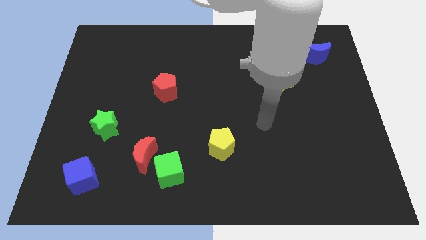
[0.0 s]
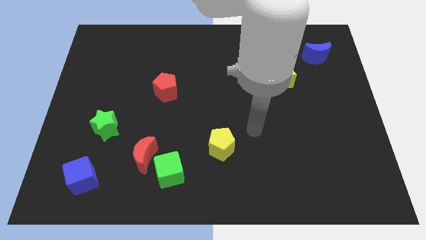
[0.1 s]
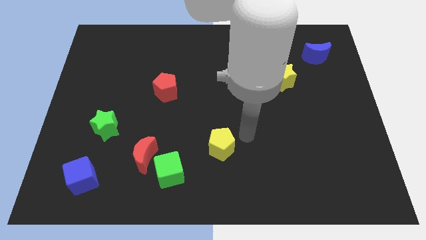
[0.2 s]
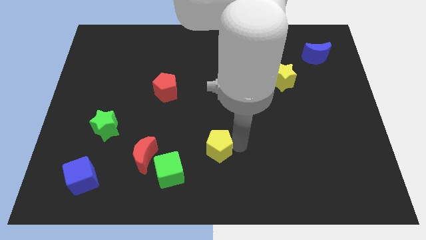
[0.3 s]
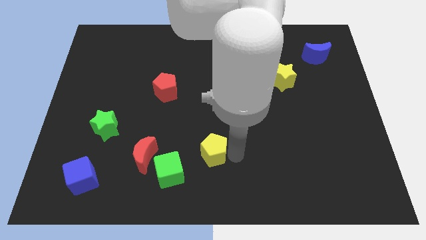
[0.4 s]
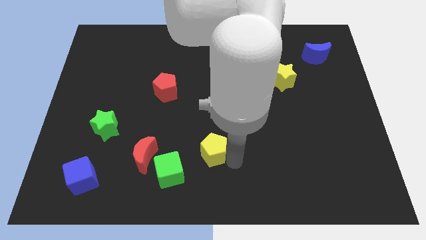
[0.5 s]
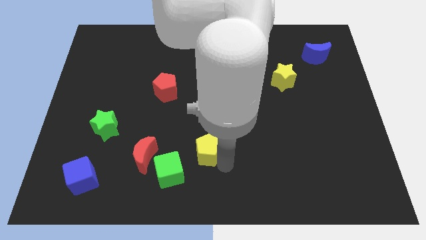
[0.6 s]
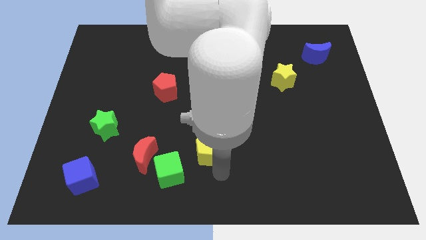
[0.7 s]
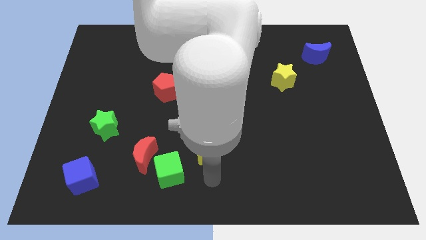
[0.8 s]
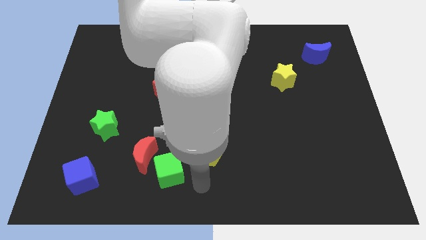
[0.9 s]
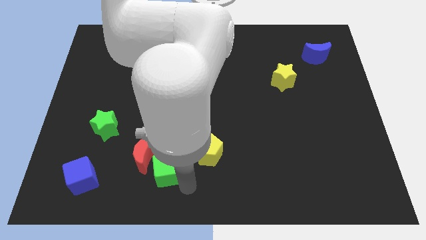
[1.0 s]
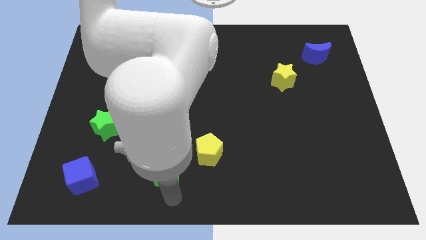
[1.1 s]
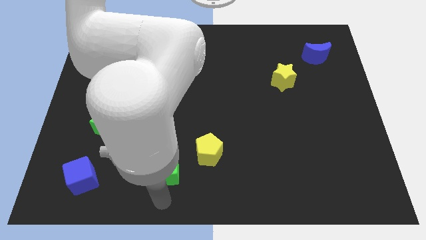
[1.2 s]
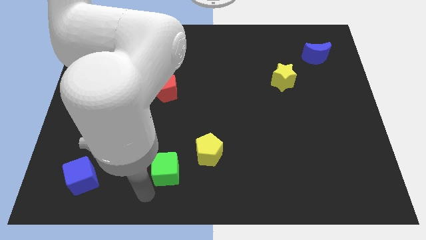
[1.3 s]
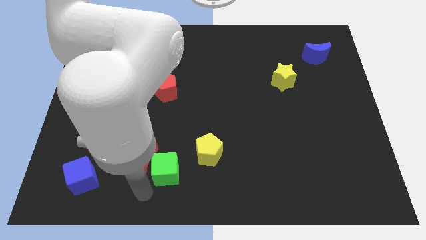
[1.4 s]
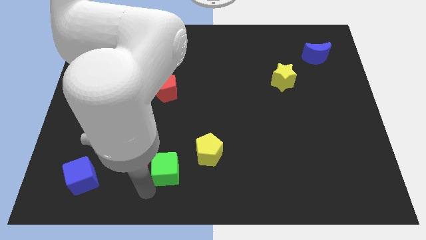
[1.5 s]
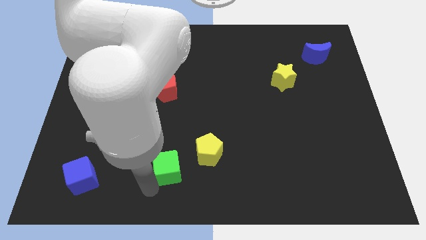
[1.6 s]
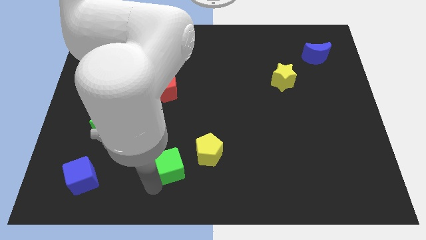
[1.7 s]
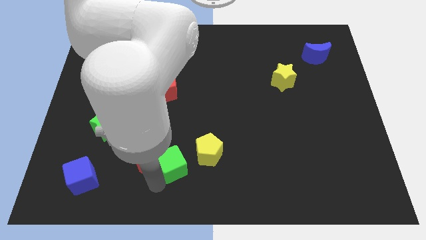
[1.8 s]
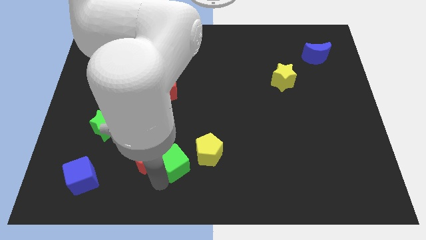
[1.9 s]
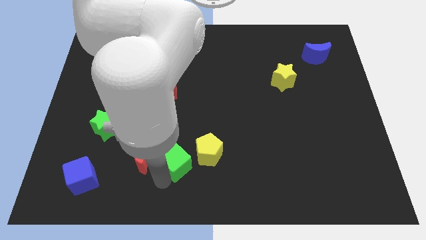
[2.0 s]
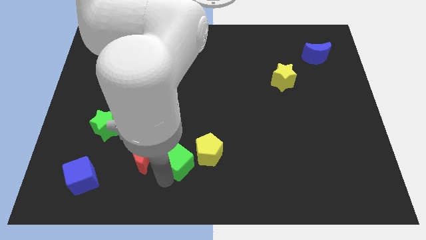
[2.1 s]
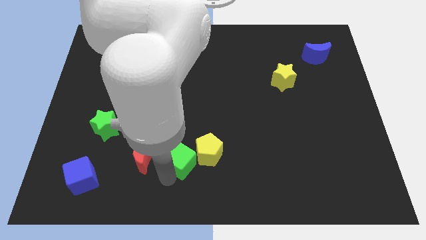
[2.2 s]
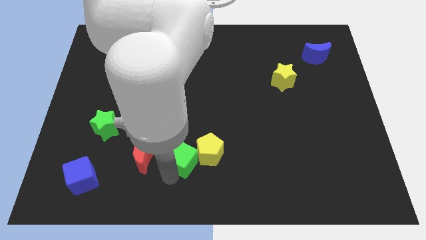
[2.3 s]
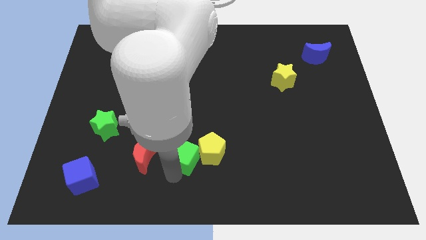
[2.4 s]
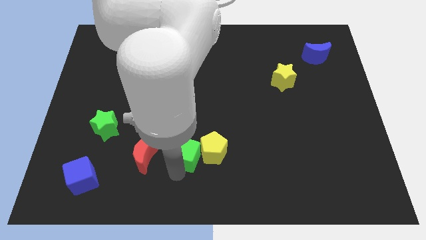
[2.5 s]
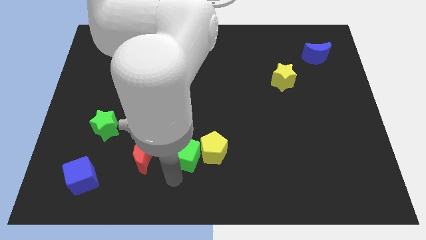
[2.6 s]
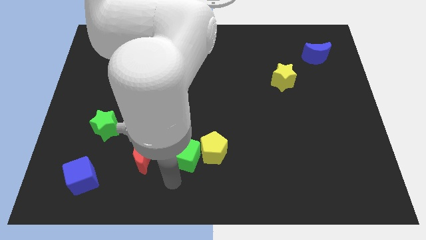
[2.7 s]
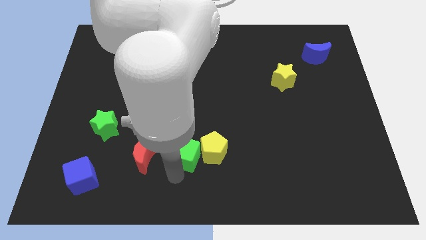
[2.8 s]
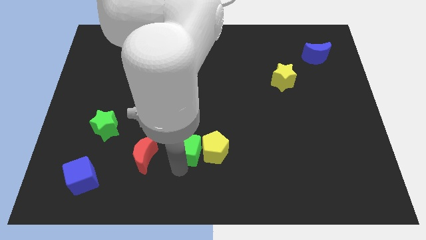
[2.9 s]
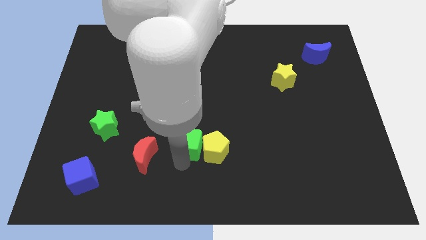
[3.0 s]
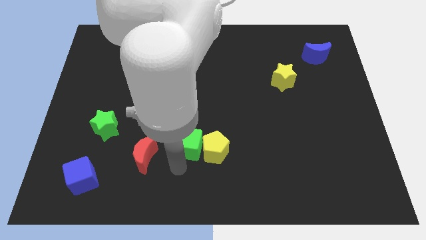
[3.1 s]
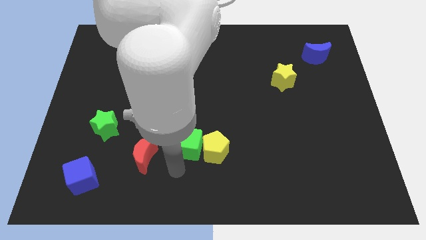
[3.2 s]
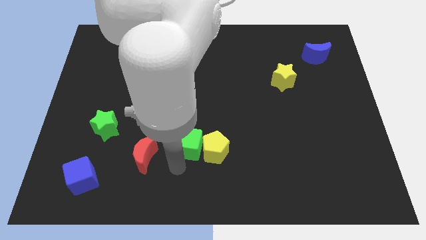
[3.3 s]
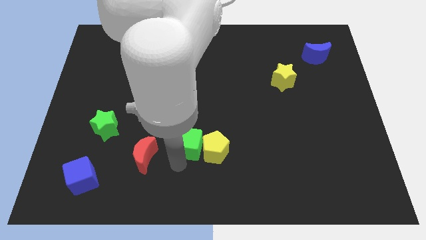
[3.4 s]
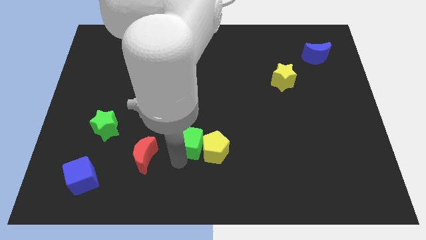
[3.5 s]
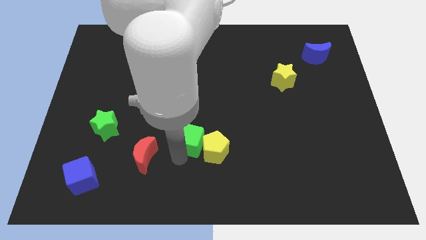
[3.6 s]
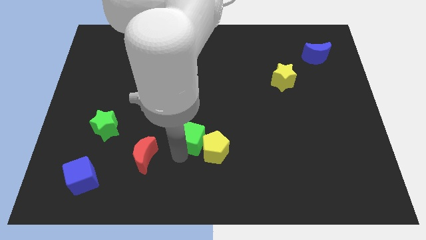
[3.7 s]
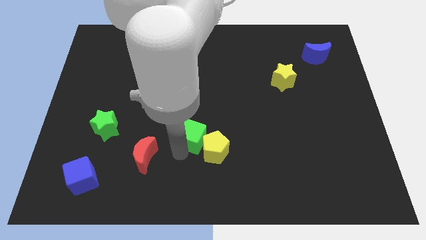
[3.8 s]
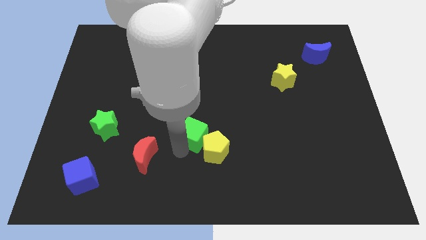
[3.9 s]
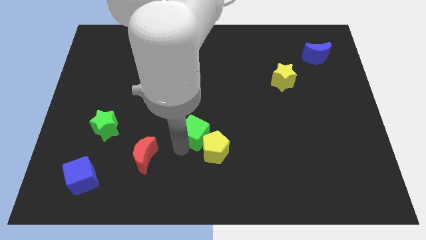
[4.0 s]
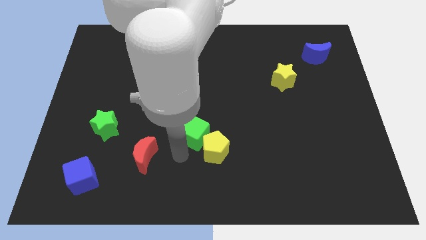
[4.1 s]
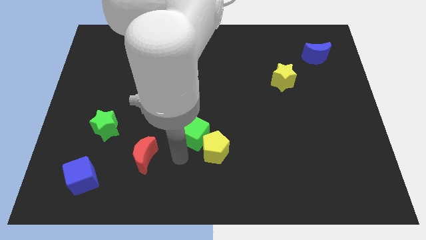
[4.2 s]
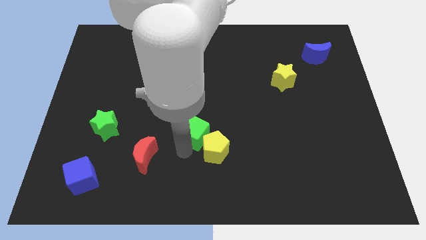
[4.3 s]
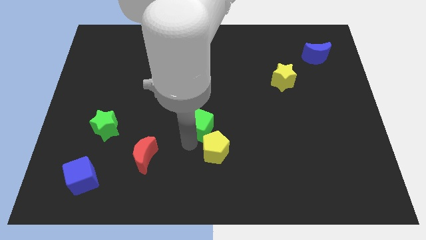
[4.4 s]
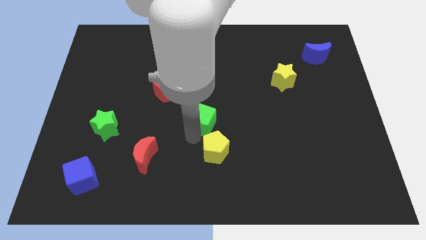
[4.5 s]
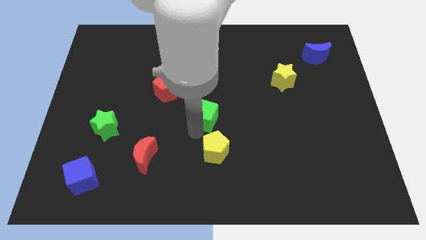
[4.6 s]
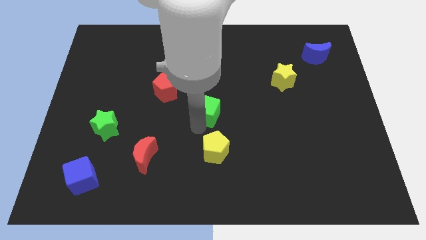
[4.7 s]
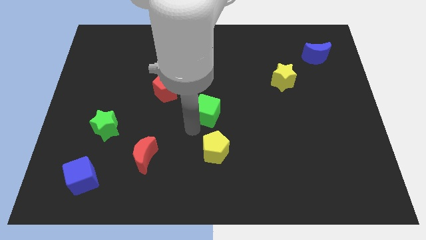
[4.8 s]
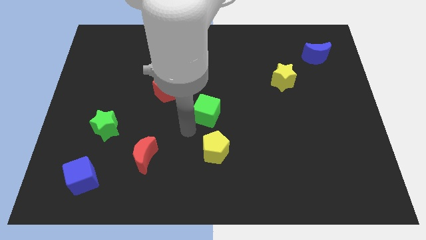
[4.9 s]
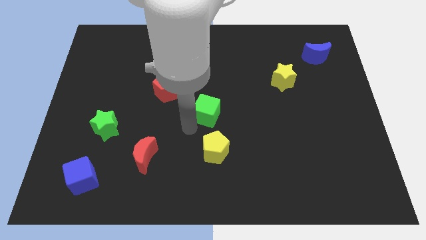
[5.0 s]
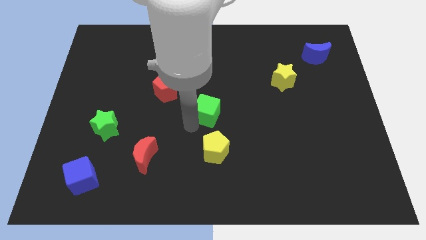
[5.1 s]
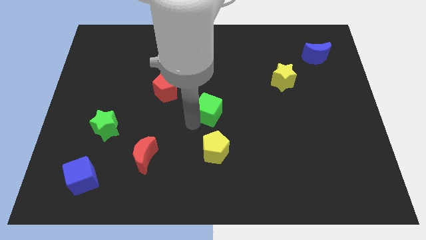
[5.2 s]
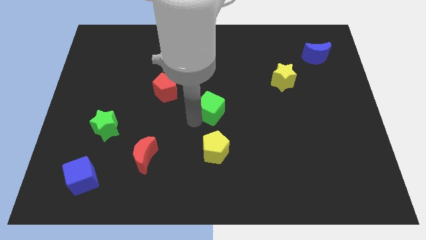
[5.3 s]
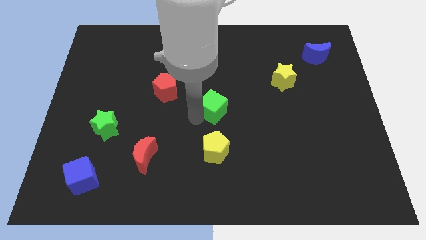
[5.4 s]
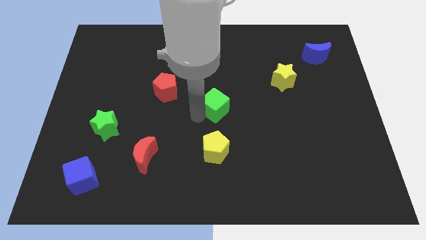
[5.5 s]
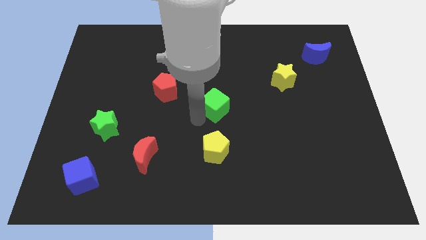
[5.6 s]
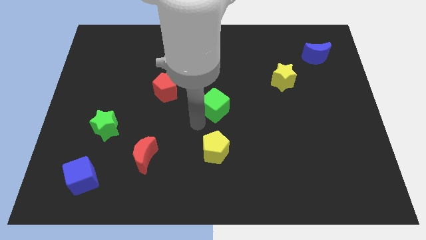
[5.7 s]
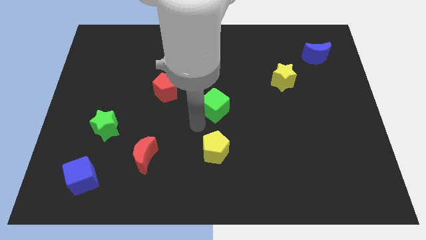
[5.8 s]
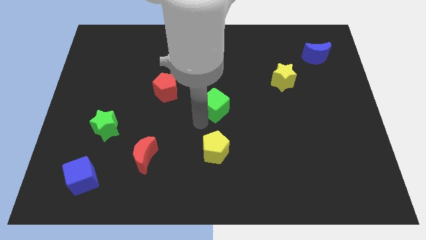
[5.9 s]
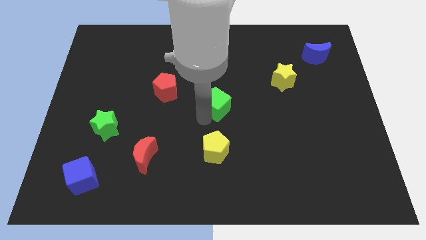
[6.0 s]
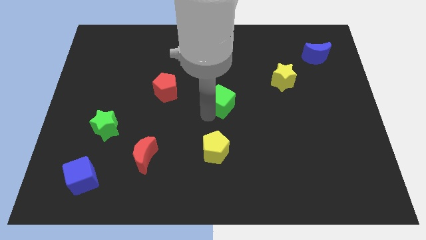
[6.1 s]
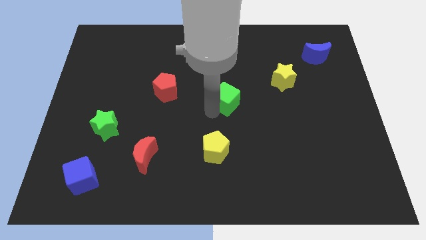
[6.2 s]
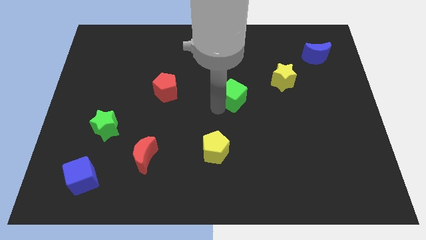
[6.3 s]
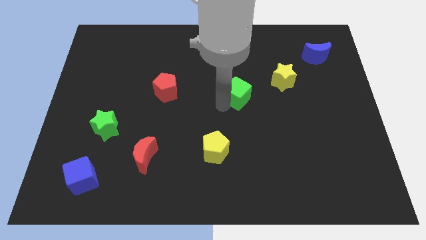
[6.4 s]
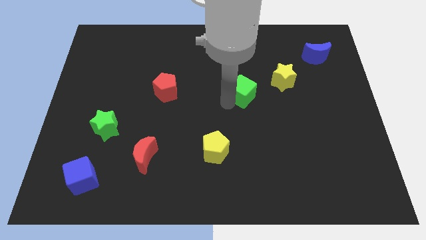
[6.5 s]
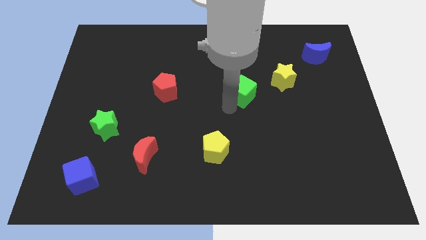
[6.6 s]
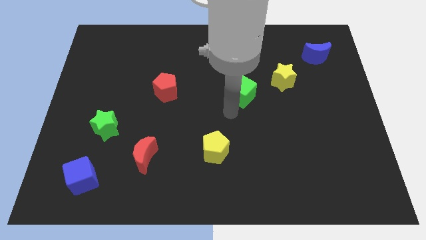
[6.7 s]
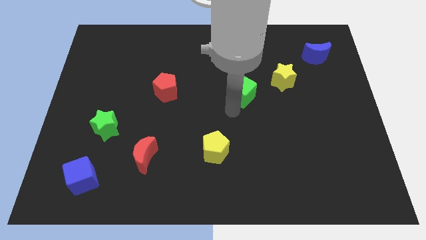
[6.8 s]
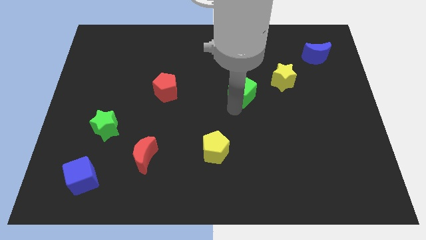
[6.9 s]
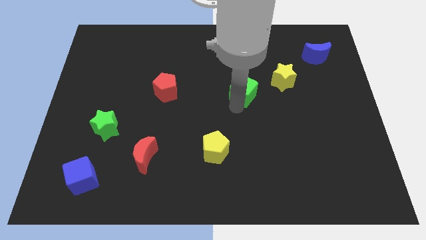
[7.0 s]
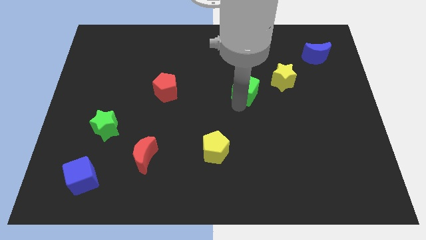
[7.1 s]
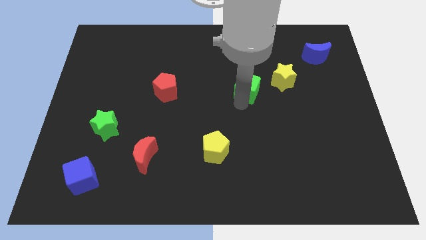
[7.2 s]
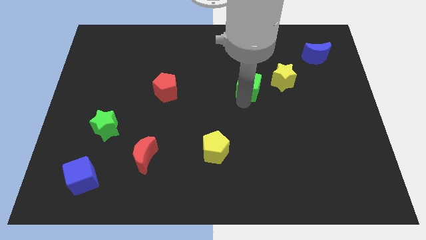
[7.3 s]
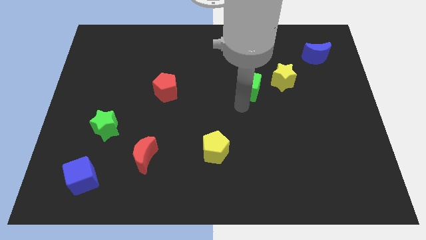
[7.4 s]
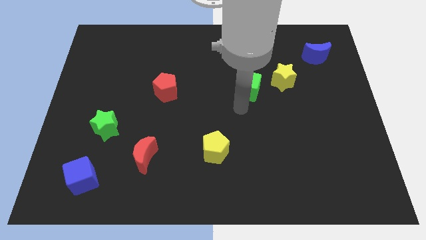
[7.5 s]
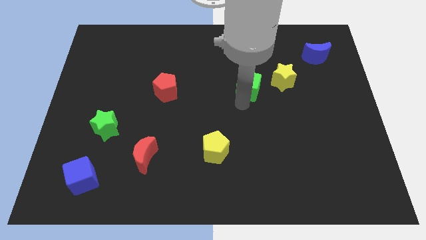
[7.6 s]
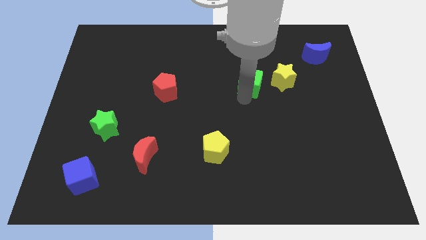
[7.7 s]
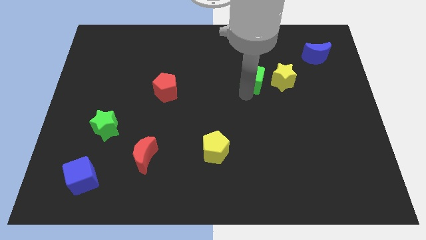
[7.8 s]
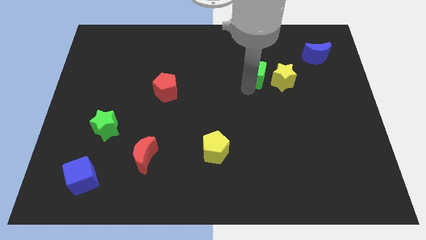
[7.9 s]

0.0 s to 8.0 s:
push the green cube to the top left of the yellow star
